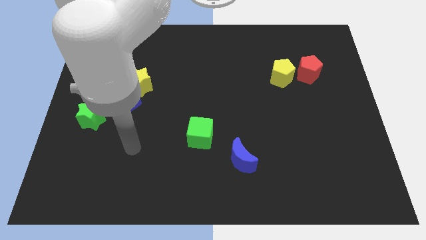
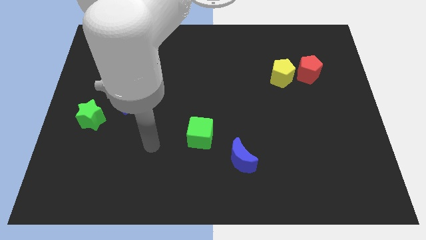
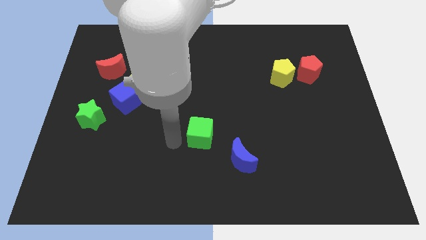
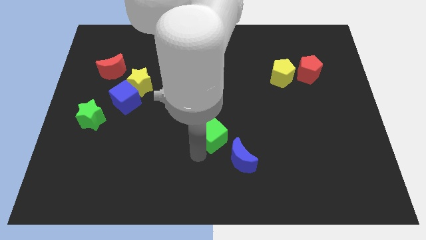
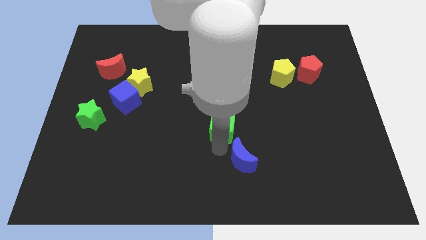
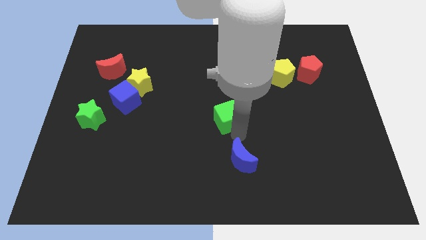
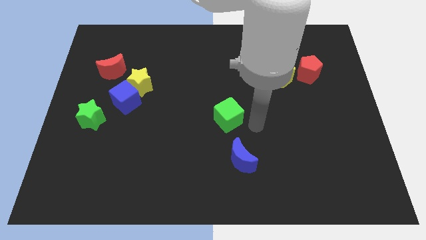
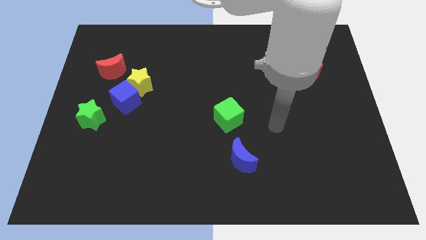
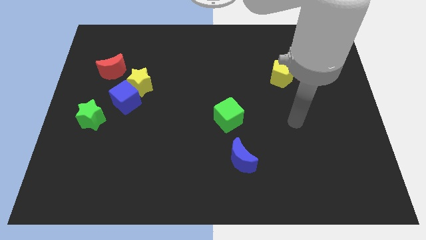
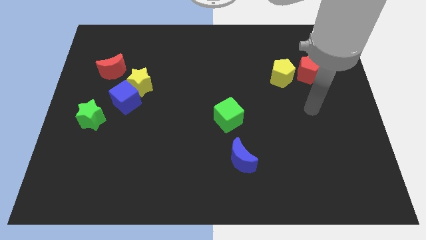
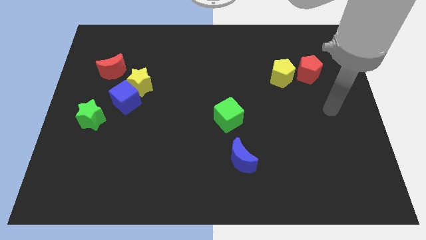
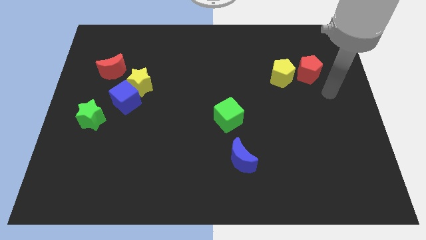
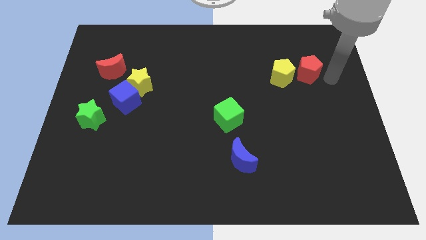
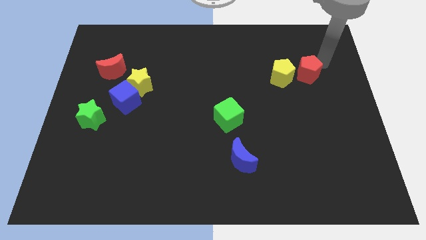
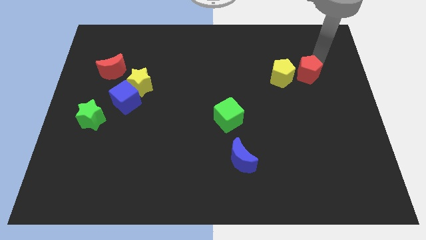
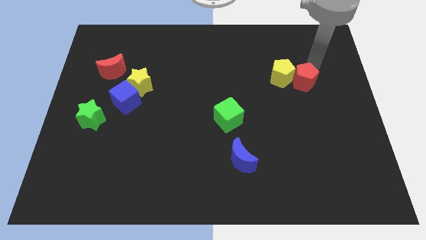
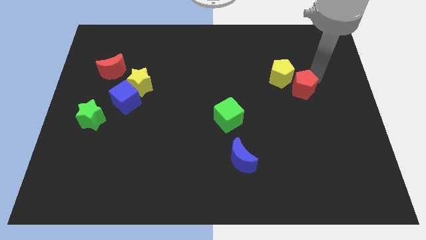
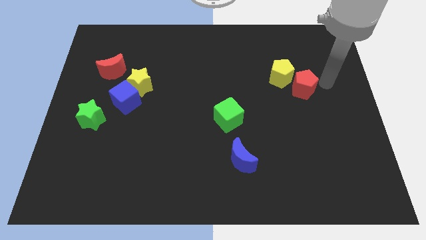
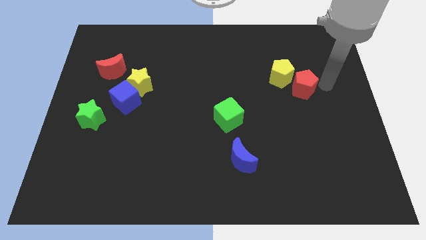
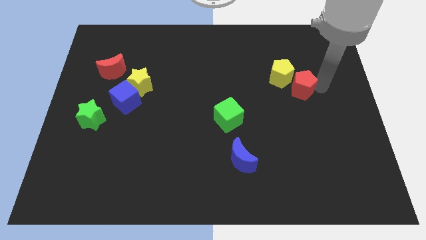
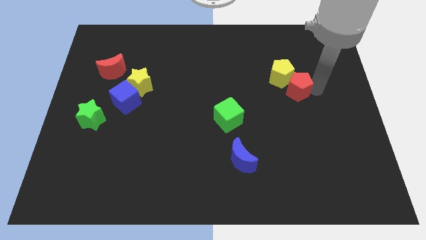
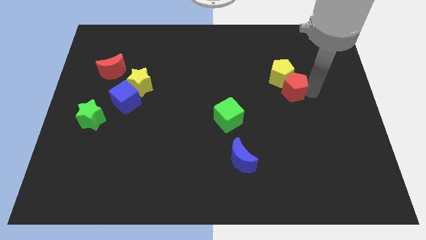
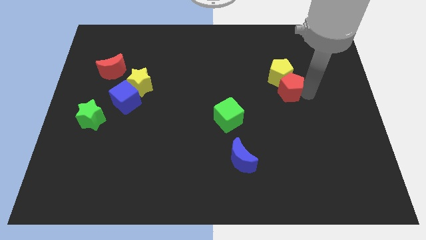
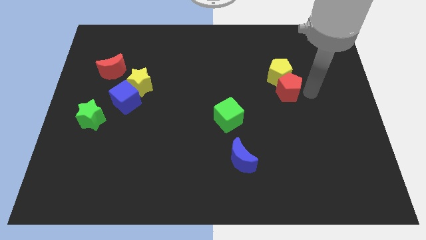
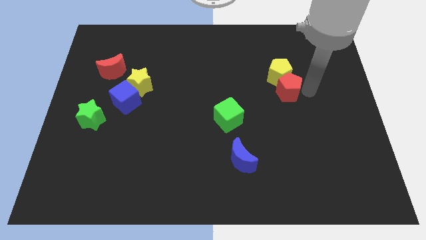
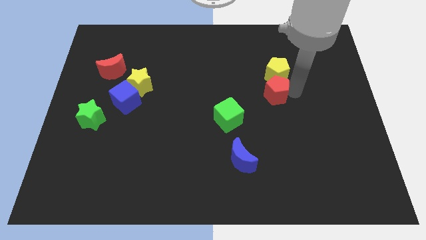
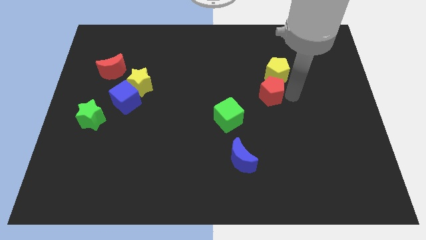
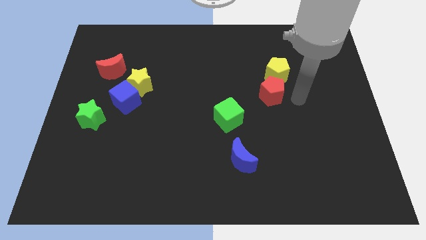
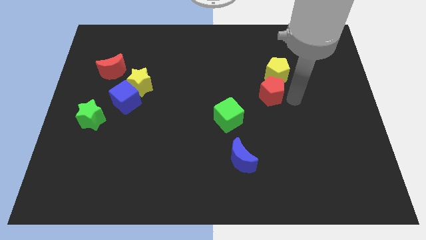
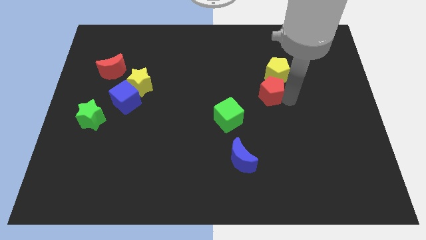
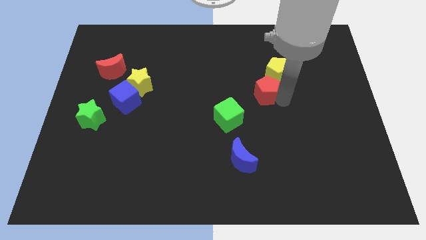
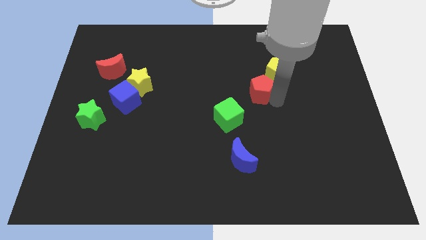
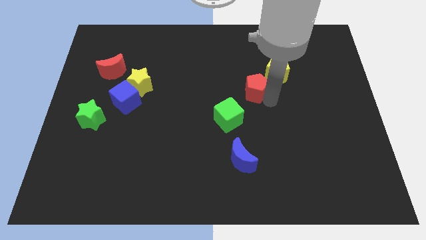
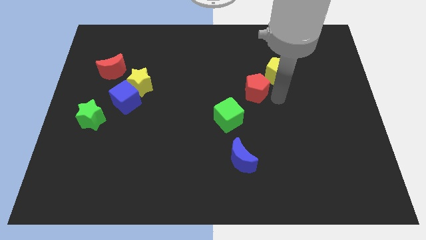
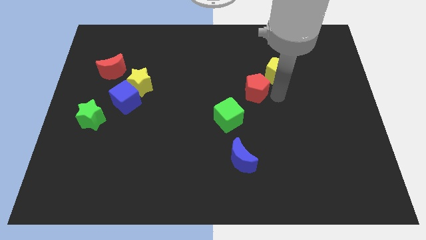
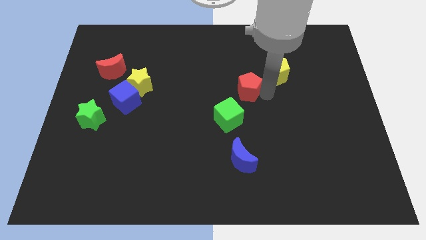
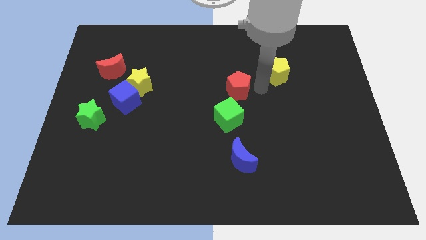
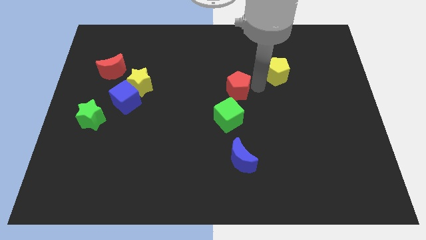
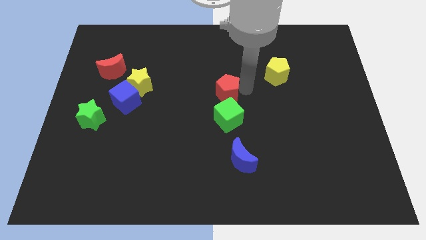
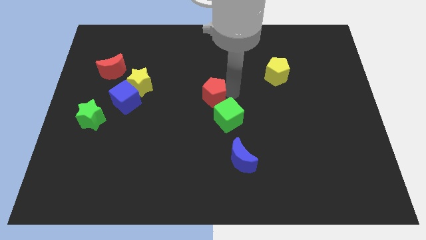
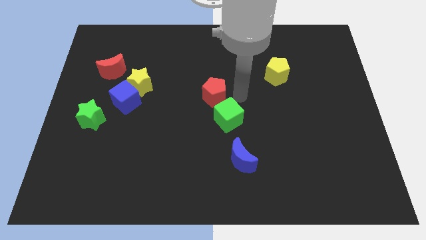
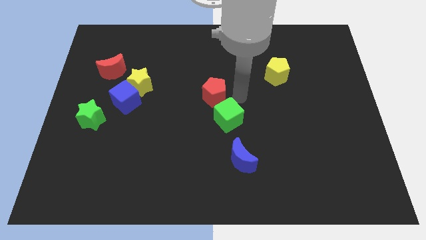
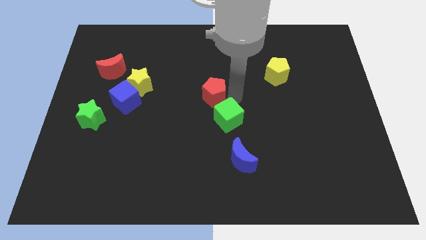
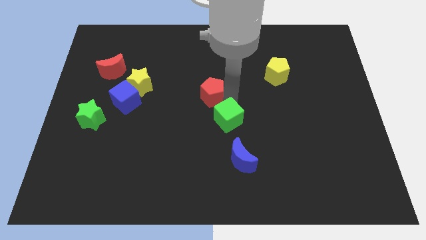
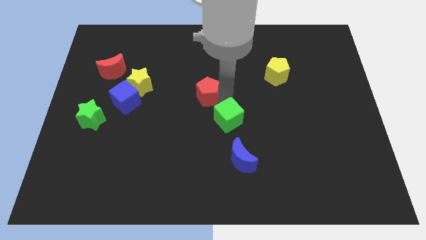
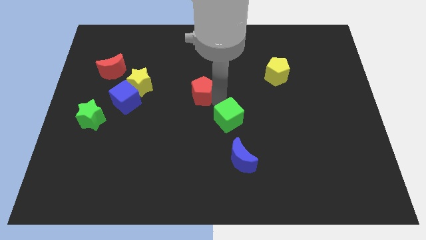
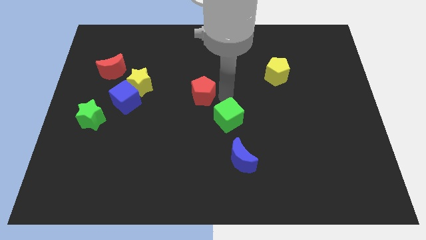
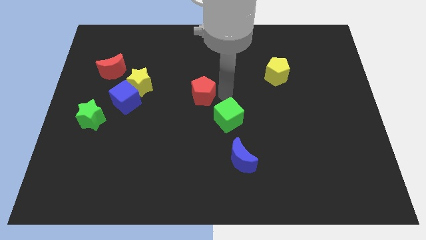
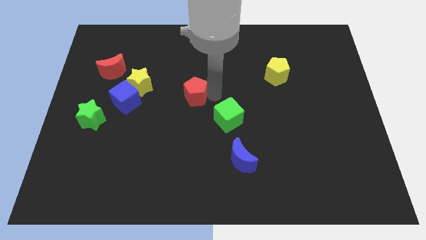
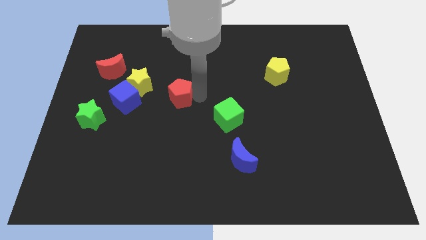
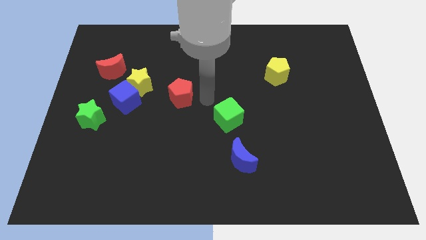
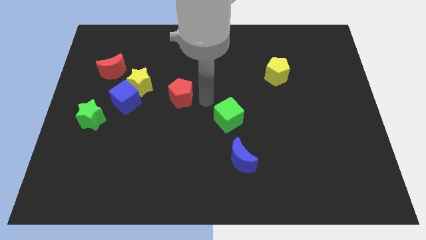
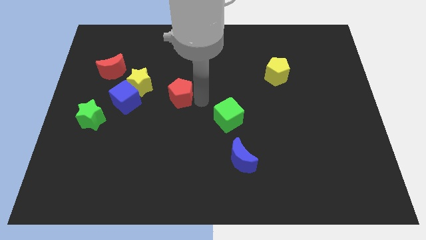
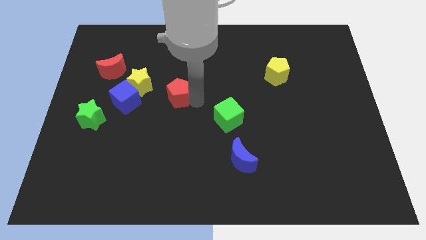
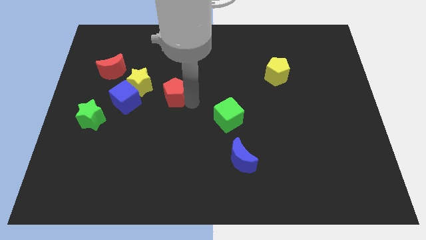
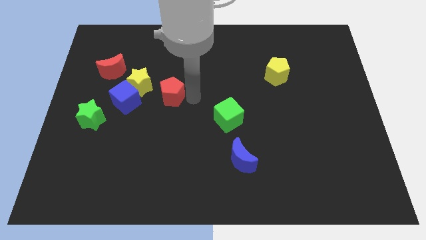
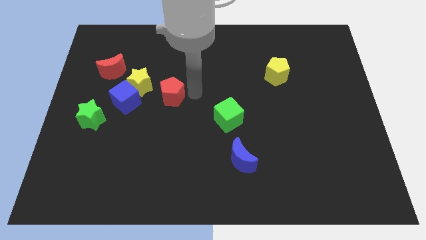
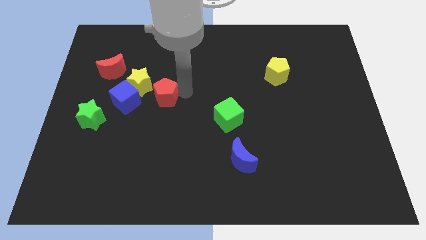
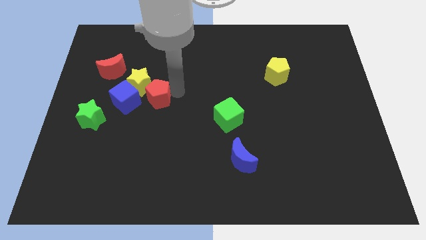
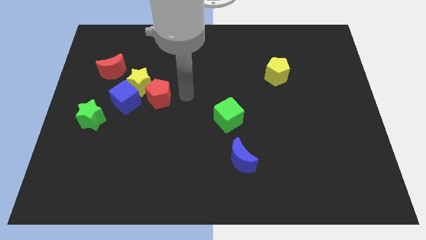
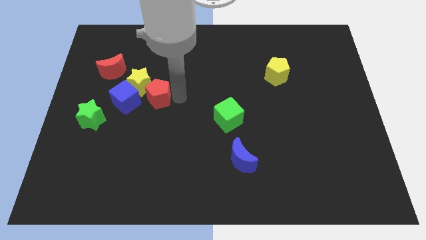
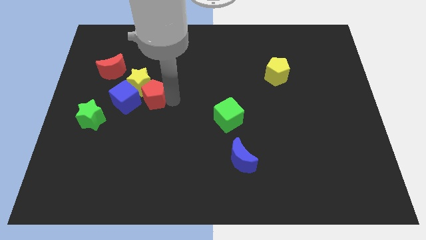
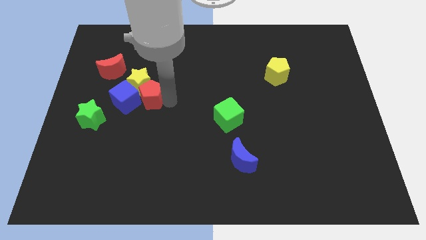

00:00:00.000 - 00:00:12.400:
move the red pentagon to the blue cube

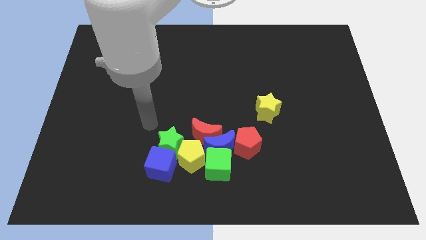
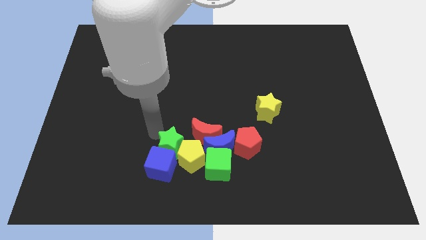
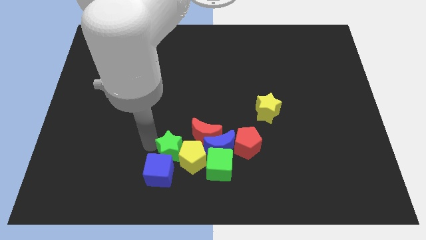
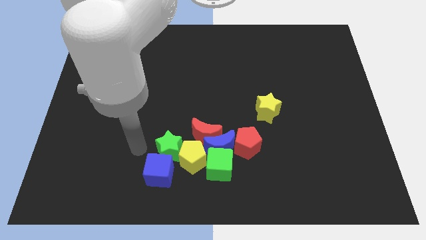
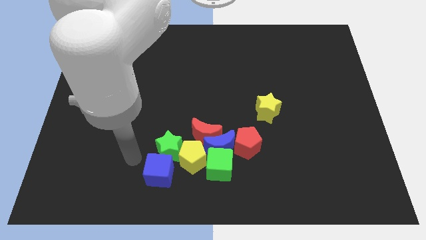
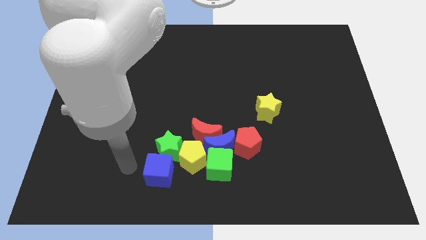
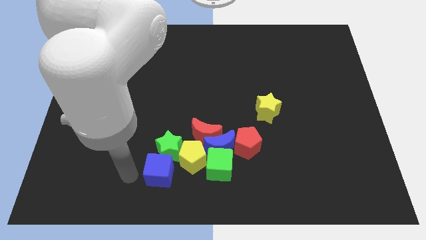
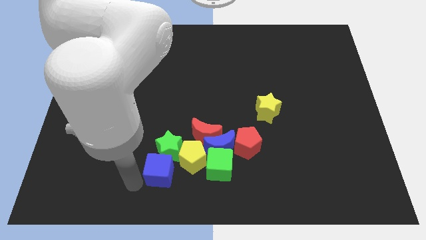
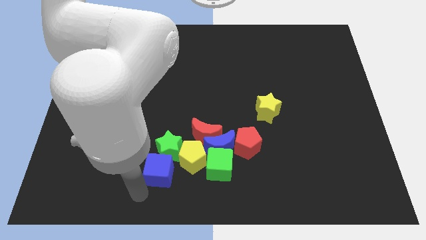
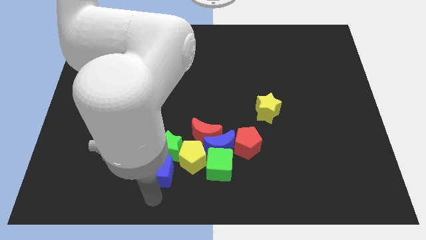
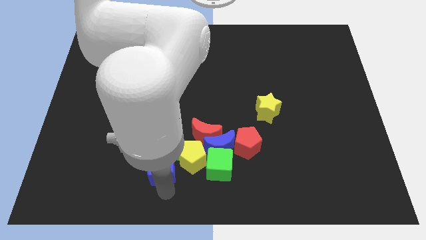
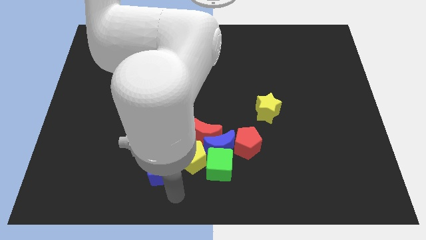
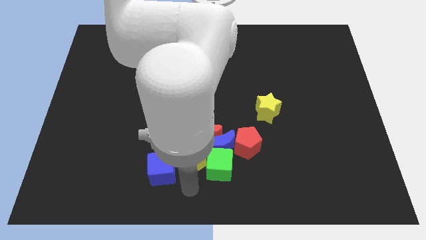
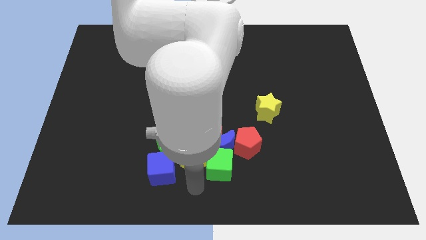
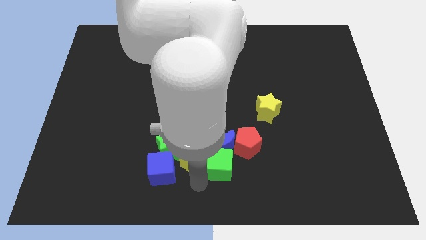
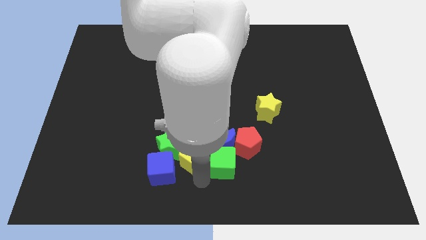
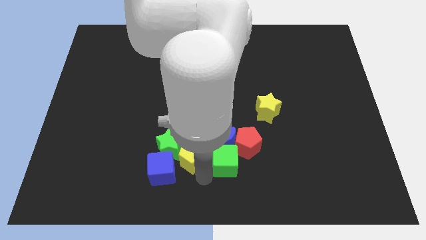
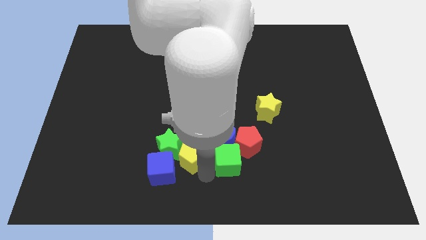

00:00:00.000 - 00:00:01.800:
push the green cube next to the red pentagon
